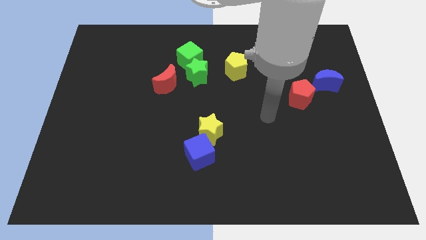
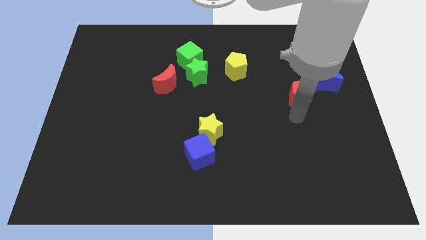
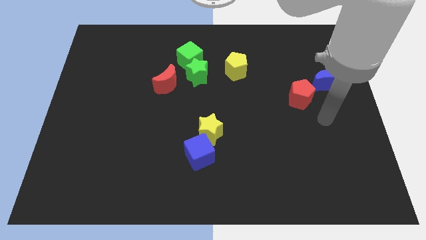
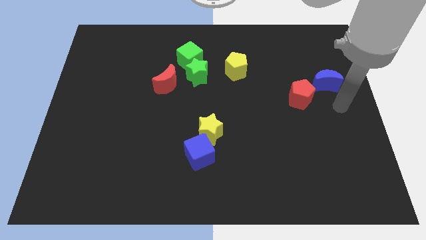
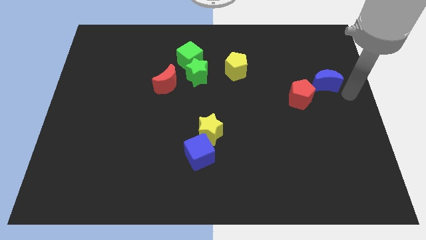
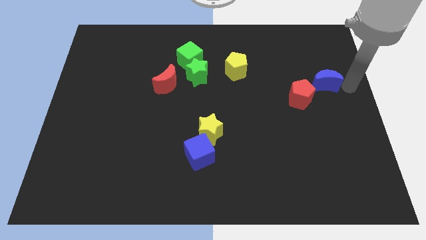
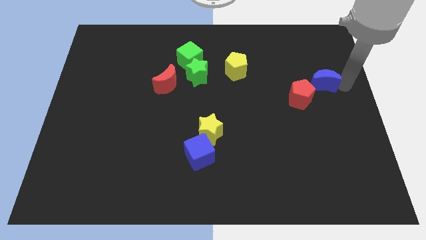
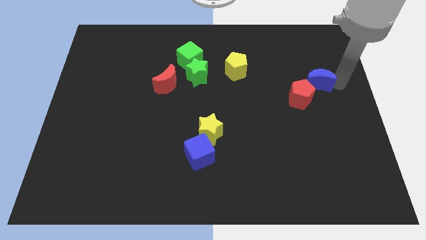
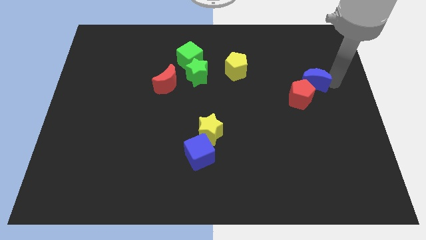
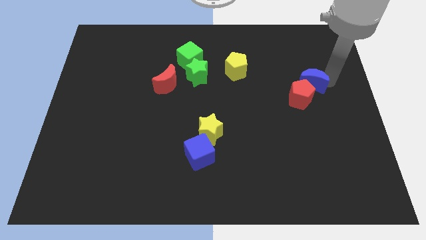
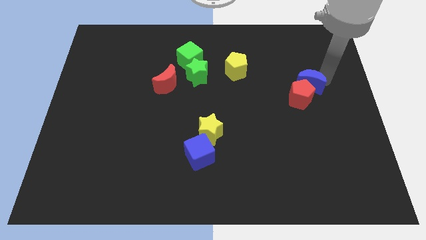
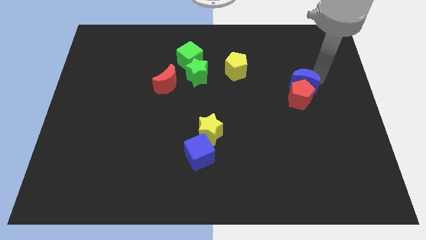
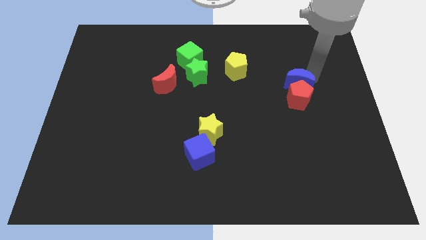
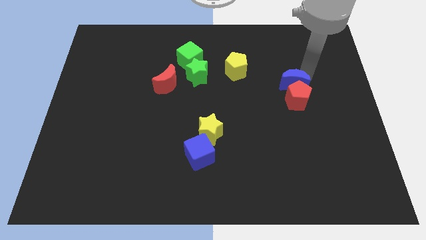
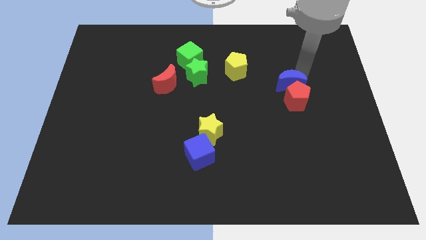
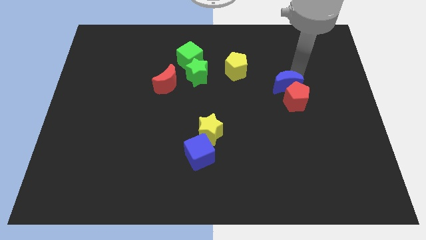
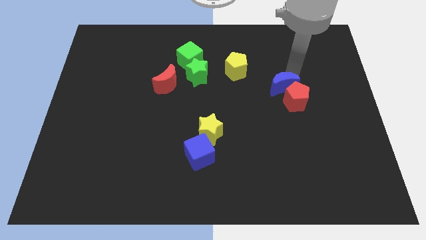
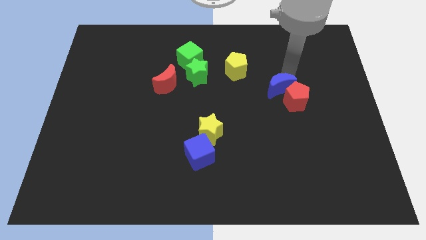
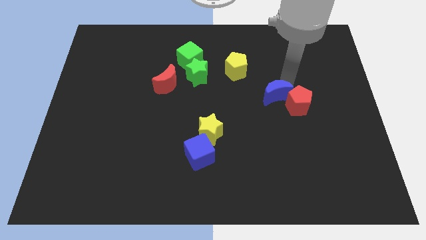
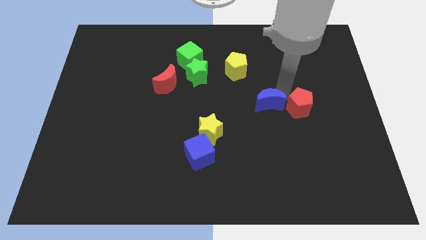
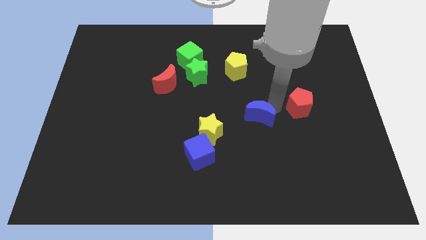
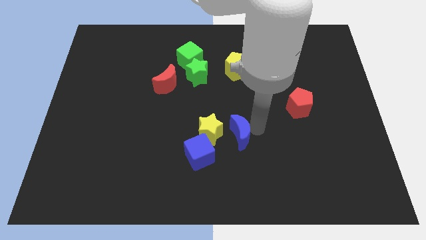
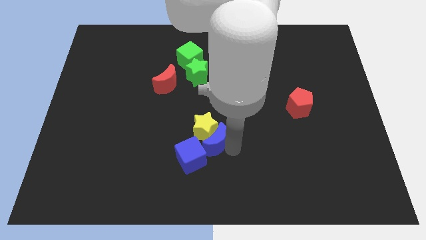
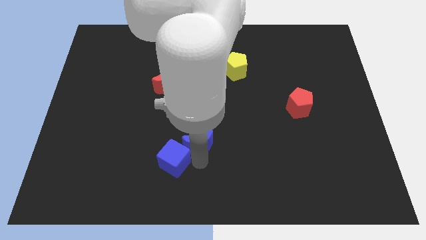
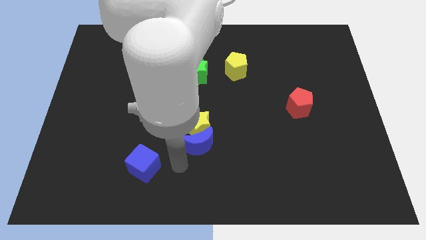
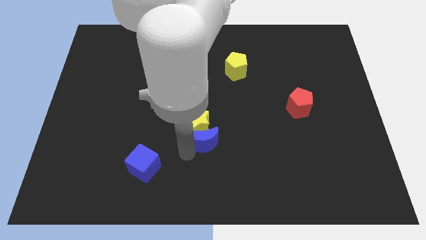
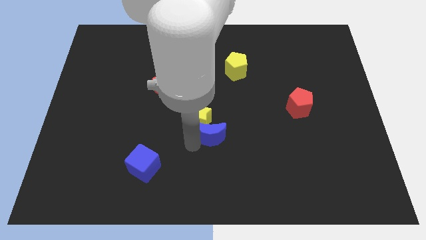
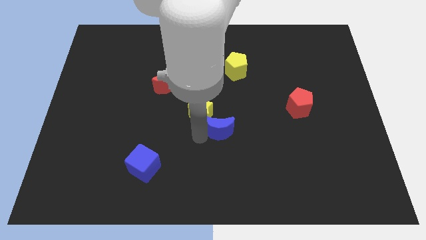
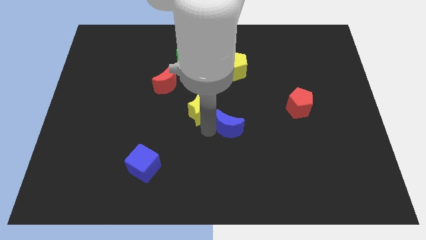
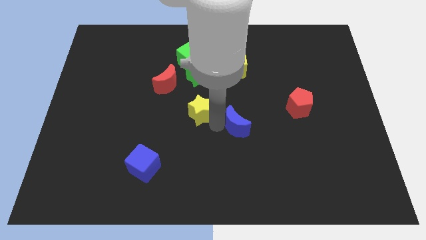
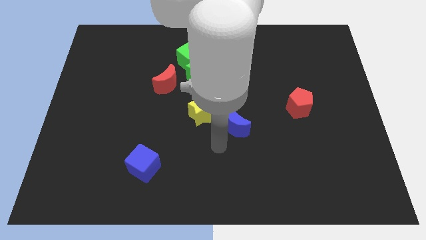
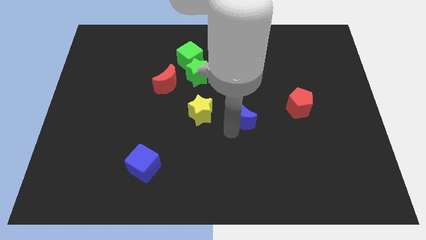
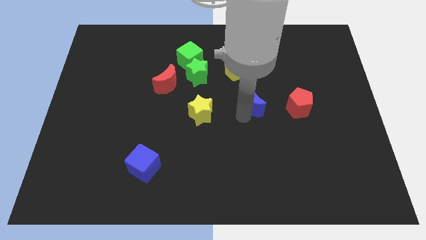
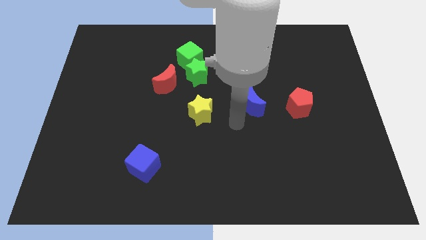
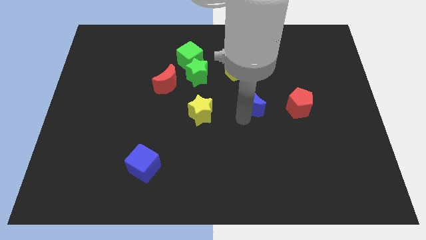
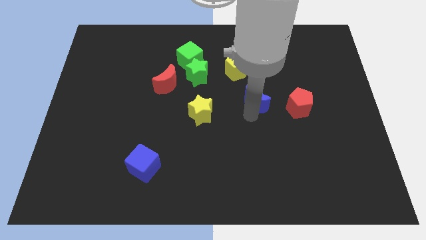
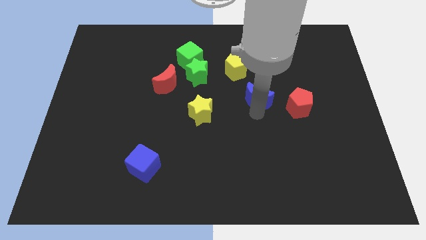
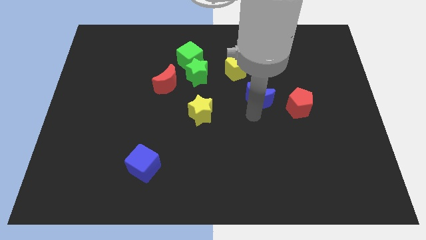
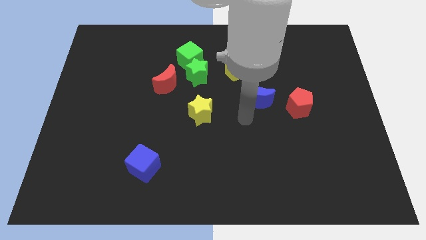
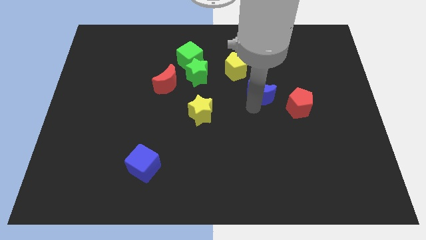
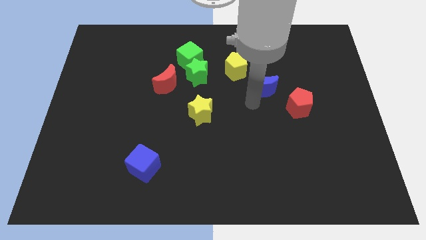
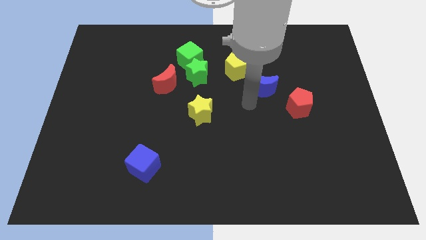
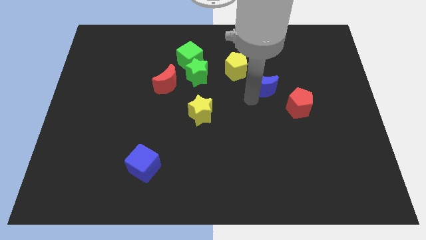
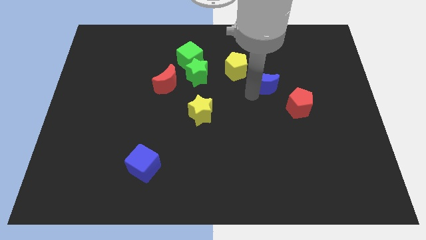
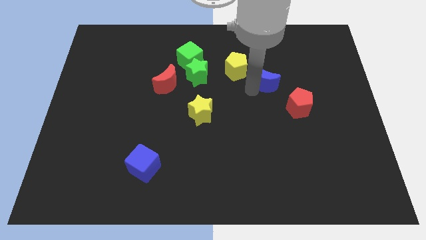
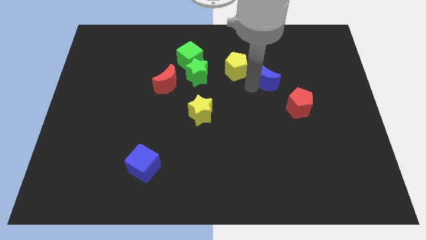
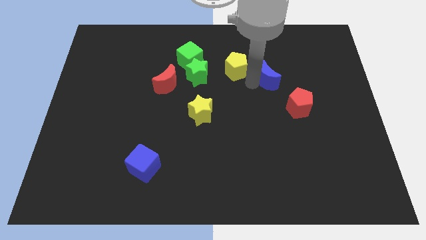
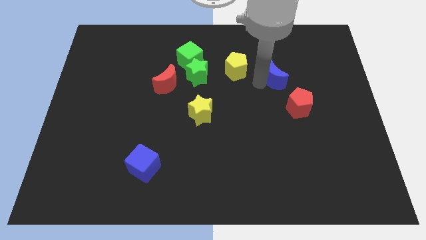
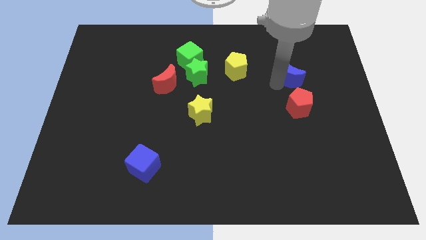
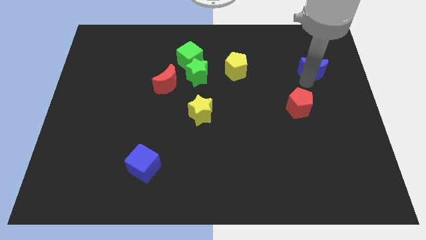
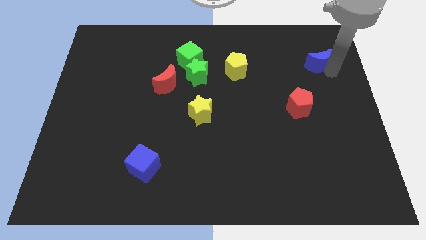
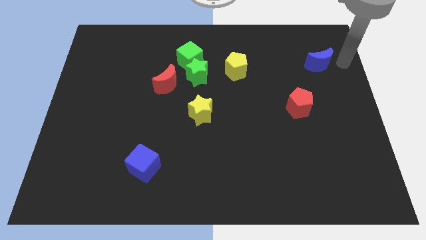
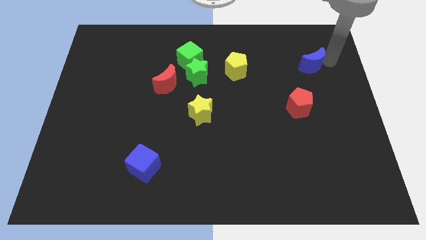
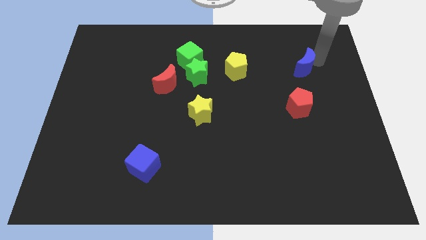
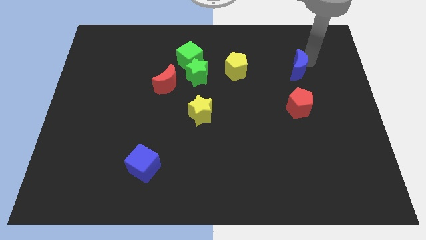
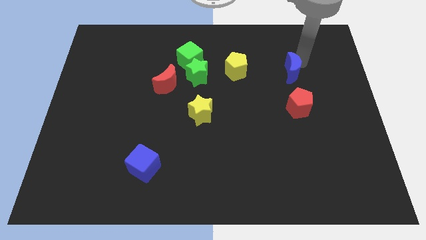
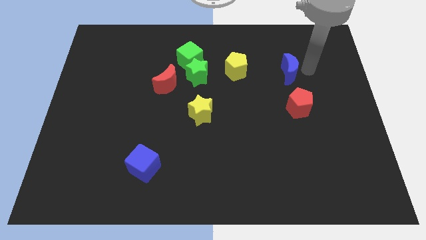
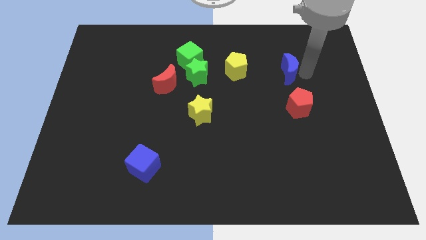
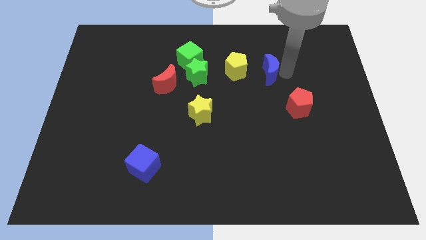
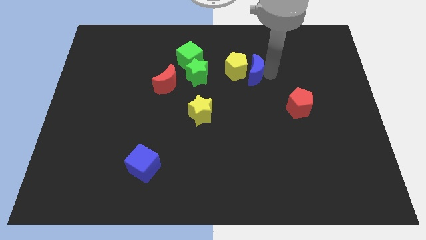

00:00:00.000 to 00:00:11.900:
push the blue moon close to the yellow pentagon

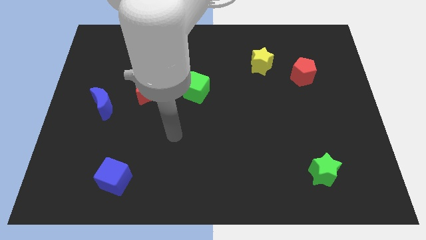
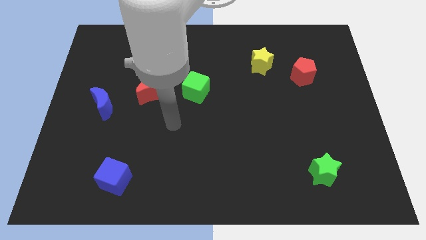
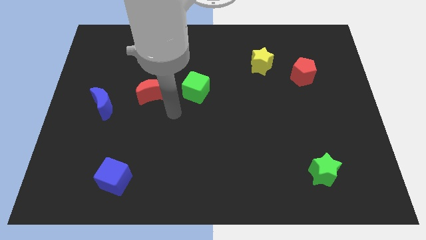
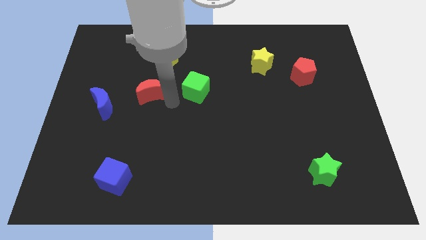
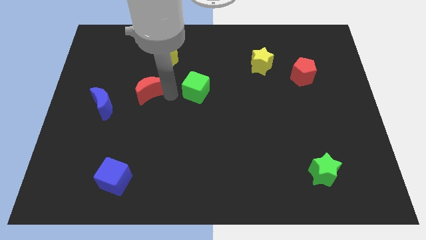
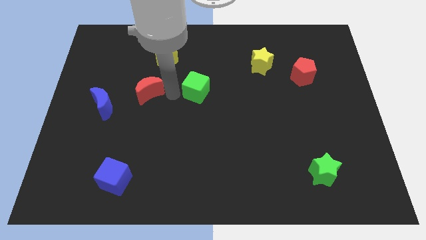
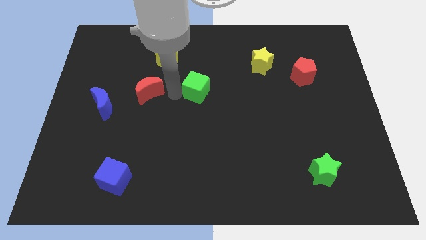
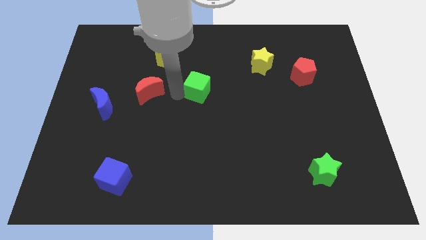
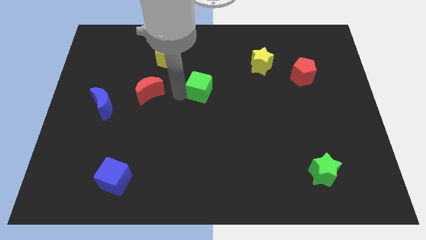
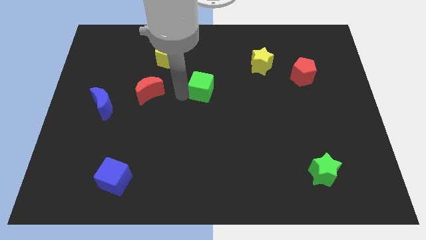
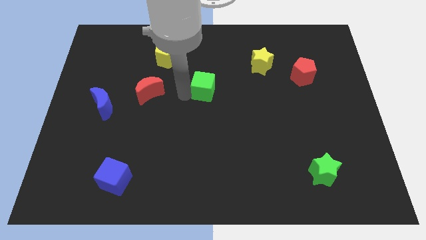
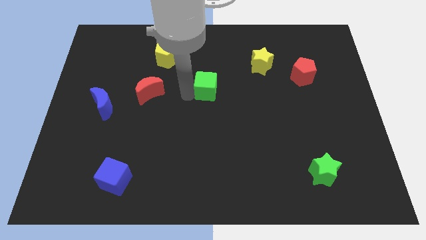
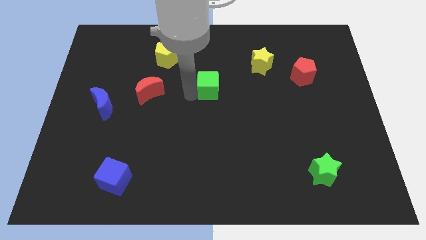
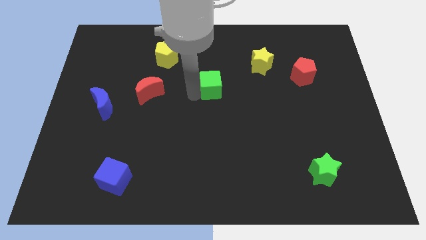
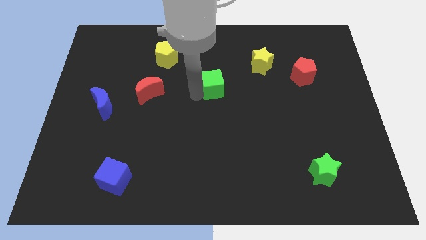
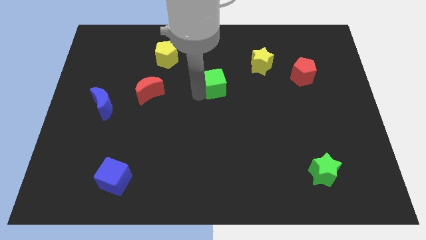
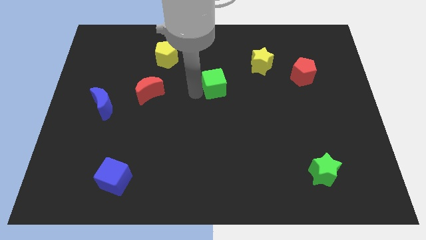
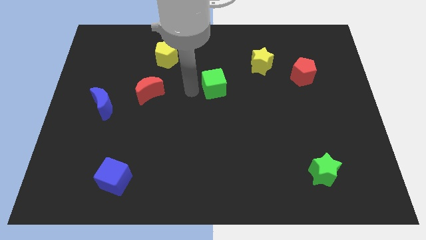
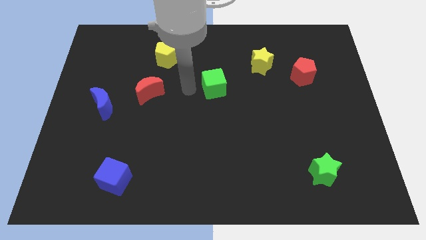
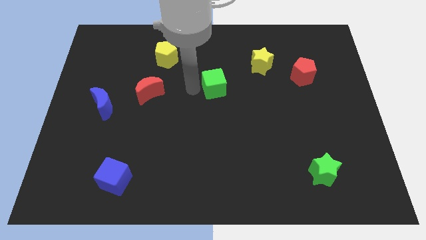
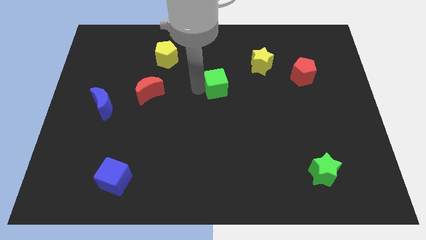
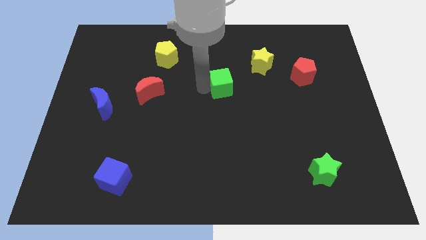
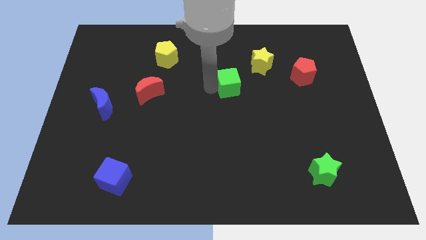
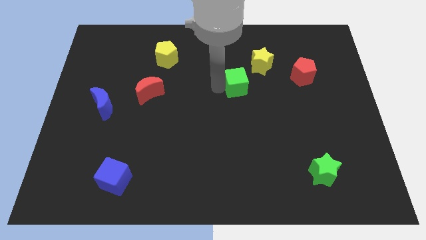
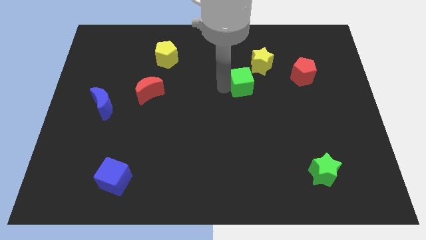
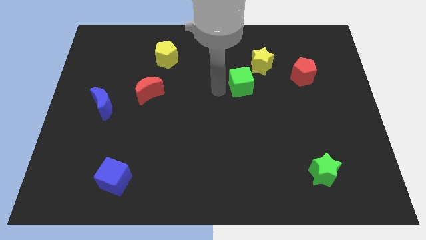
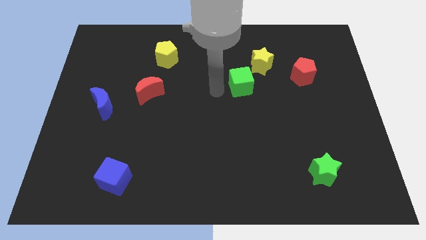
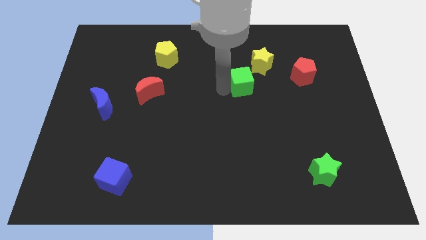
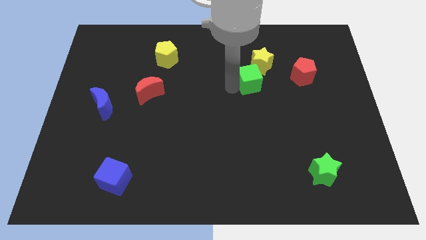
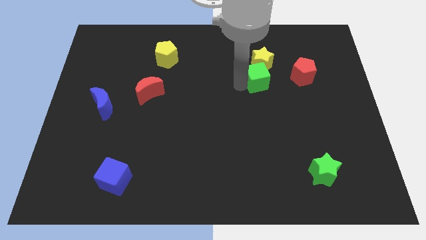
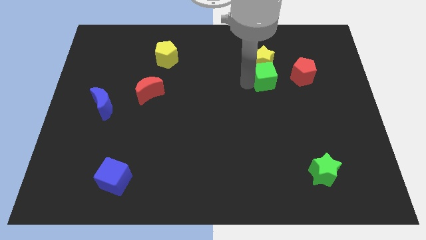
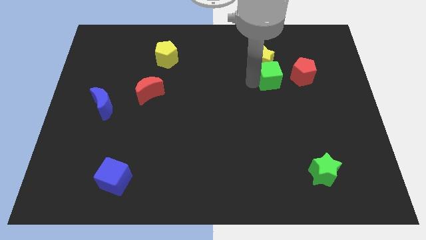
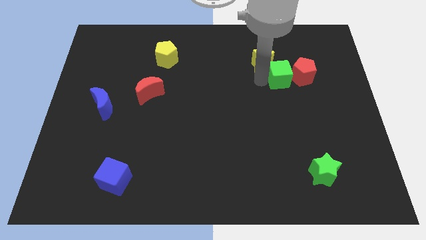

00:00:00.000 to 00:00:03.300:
slide the green cube close to the red pentagon
